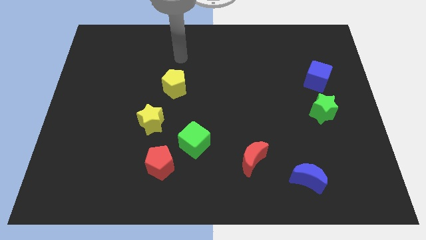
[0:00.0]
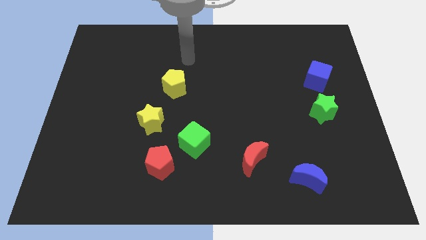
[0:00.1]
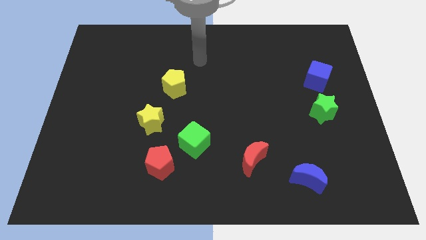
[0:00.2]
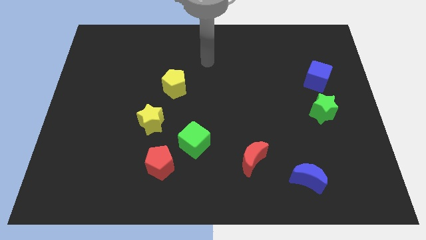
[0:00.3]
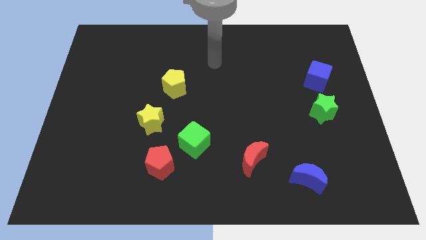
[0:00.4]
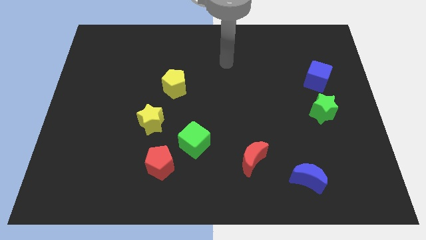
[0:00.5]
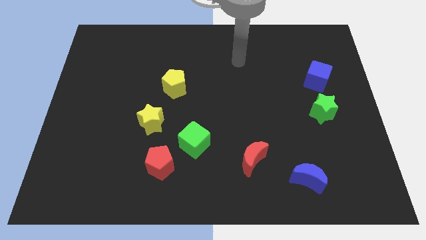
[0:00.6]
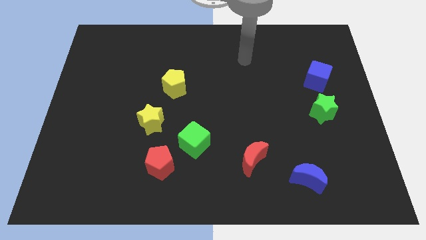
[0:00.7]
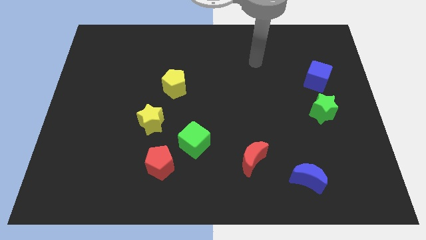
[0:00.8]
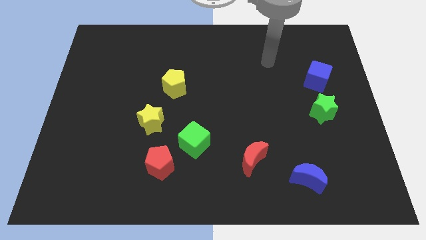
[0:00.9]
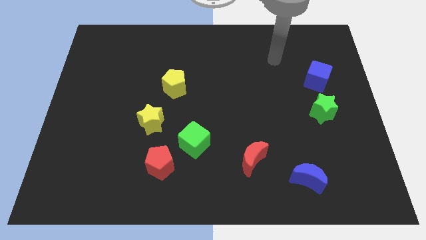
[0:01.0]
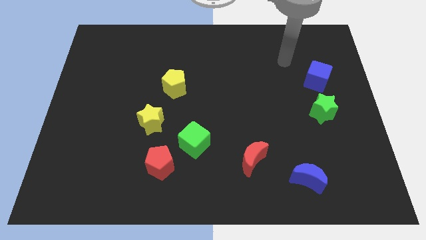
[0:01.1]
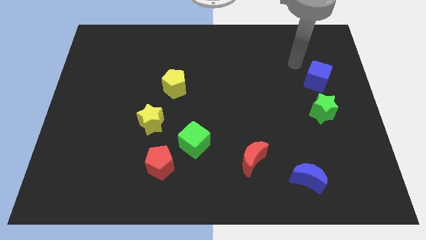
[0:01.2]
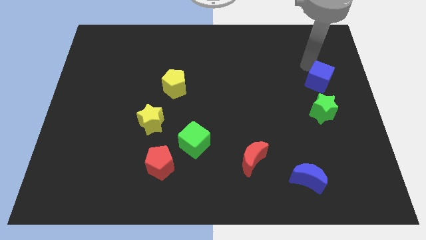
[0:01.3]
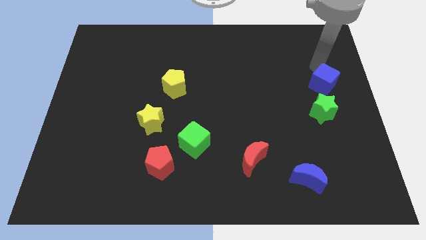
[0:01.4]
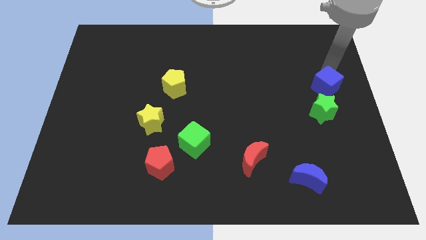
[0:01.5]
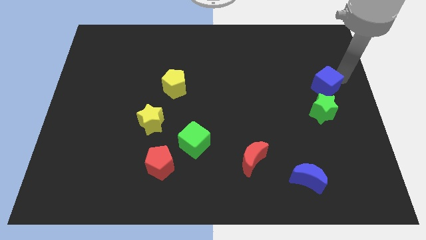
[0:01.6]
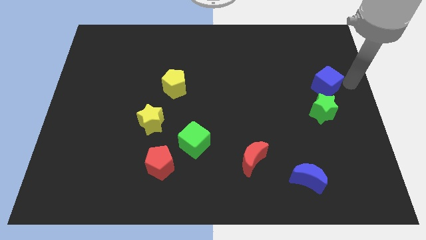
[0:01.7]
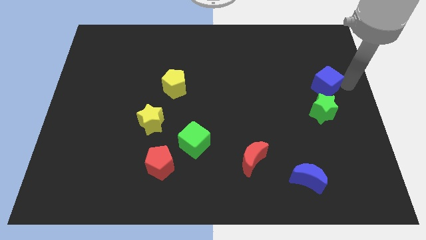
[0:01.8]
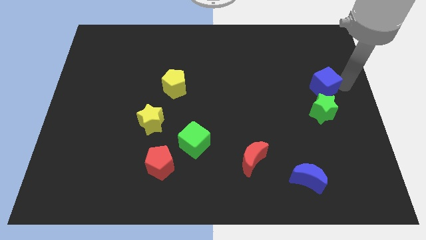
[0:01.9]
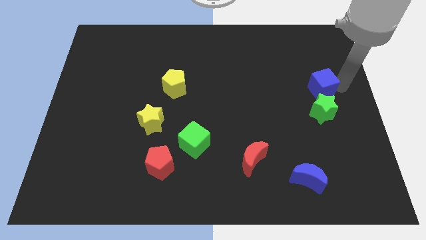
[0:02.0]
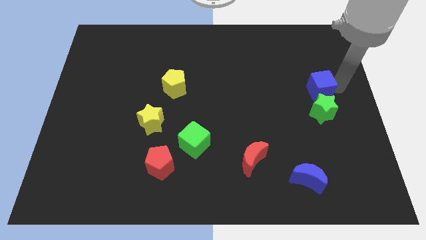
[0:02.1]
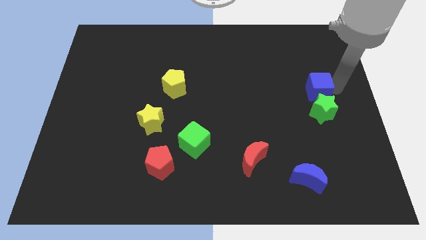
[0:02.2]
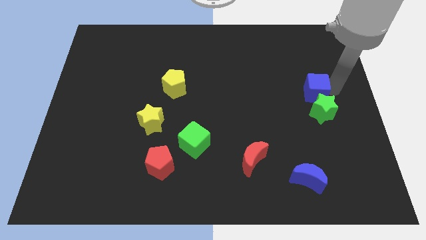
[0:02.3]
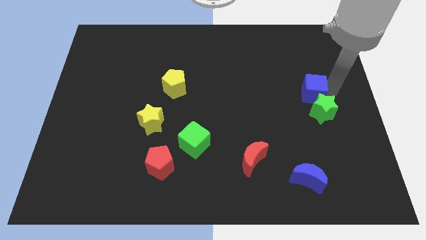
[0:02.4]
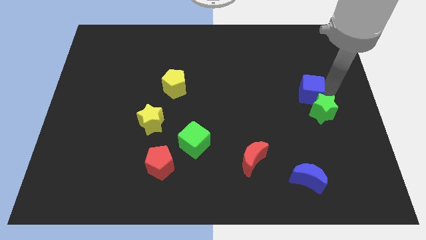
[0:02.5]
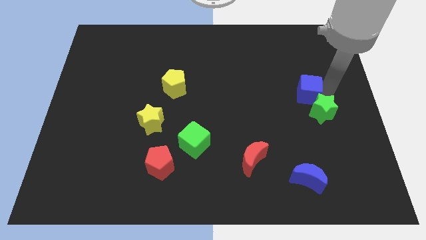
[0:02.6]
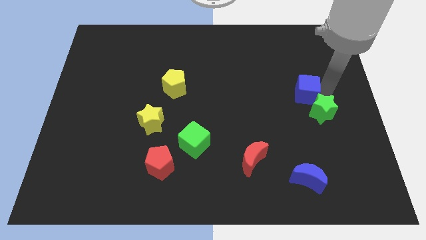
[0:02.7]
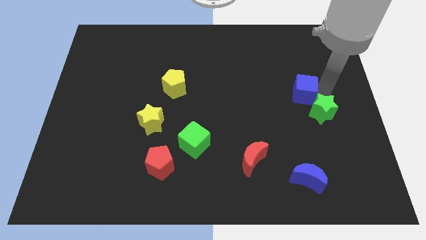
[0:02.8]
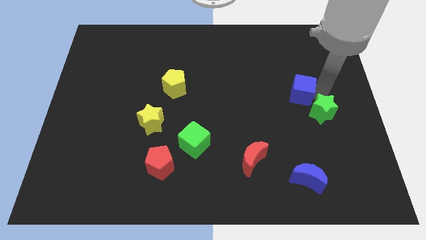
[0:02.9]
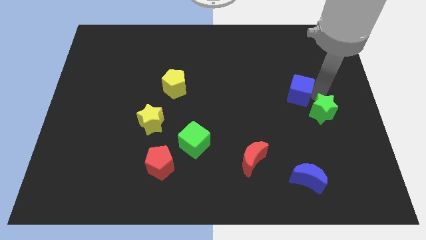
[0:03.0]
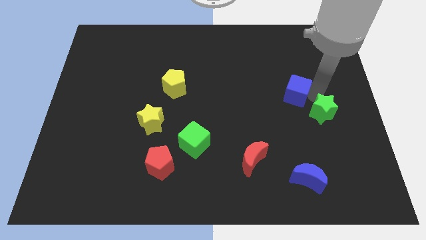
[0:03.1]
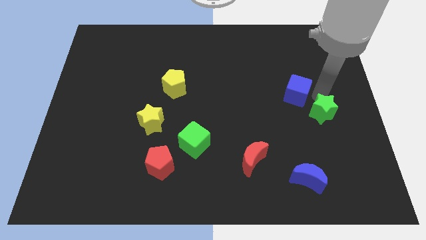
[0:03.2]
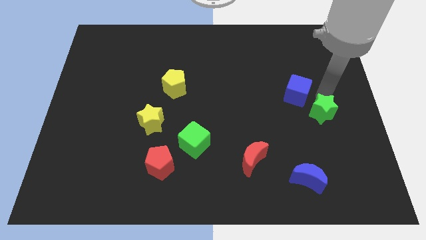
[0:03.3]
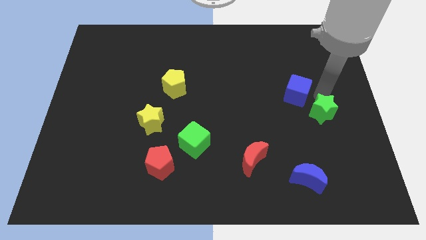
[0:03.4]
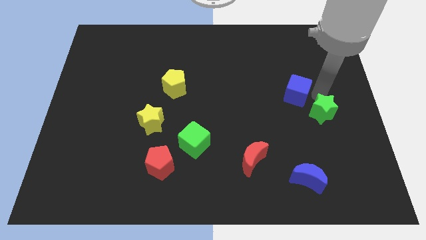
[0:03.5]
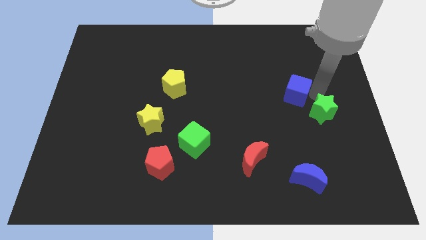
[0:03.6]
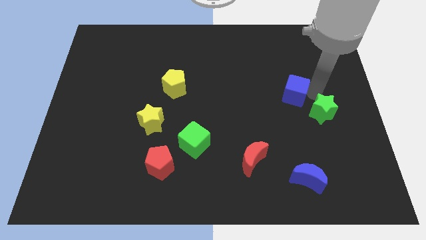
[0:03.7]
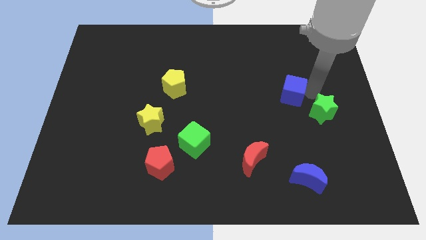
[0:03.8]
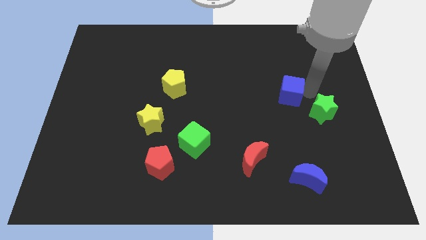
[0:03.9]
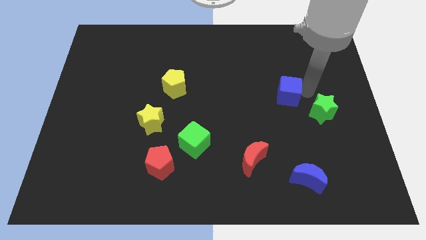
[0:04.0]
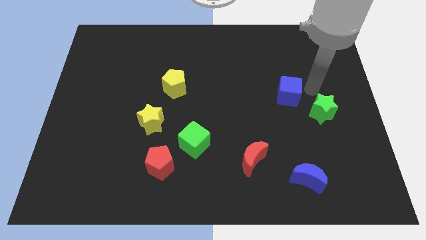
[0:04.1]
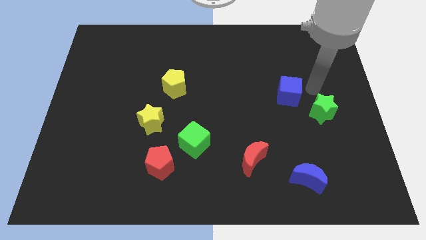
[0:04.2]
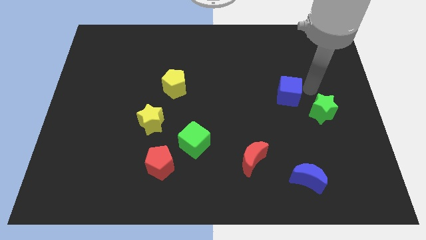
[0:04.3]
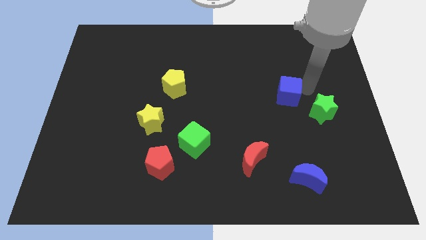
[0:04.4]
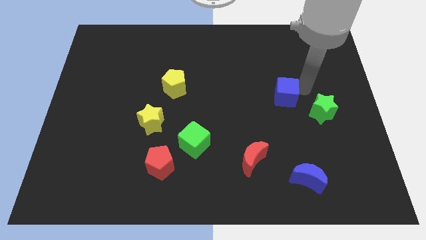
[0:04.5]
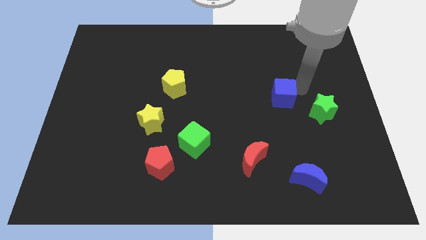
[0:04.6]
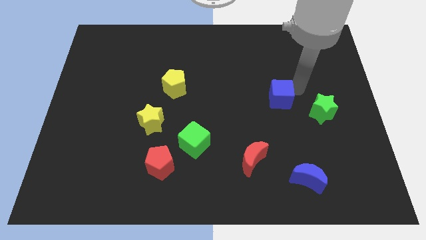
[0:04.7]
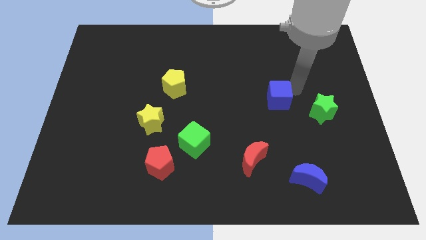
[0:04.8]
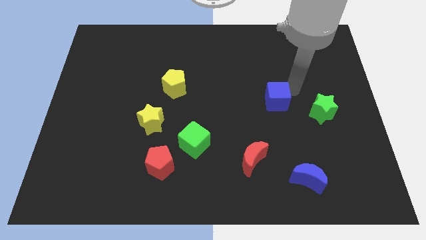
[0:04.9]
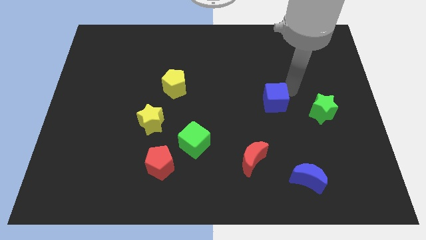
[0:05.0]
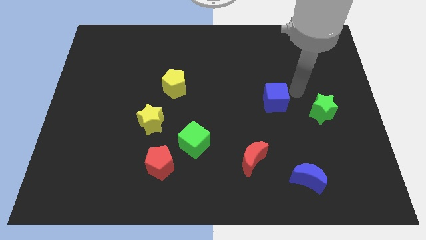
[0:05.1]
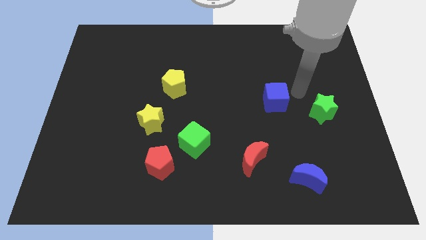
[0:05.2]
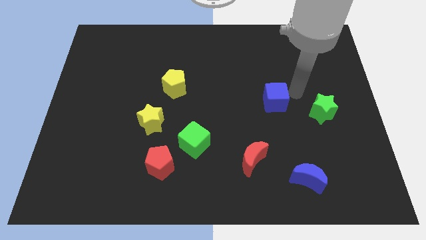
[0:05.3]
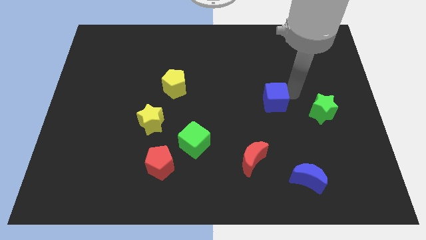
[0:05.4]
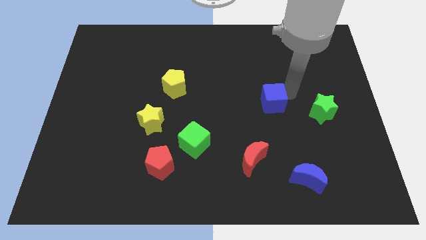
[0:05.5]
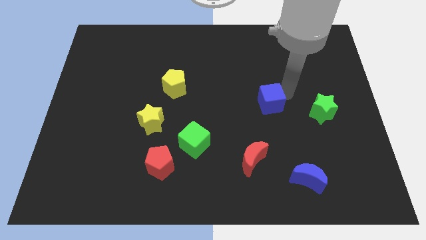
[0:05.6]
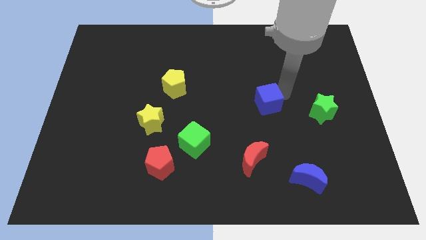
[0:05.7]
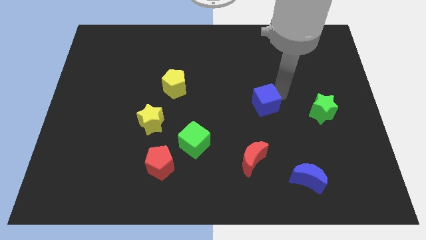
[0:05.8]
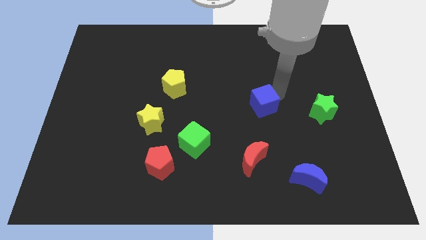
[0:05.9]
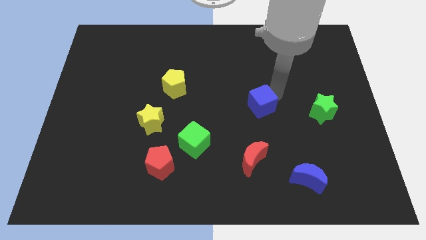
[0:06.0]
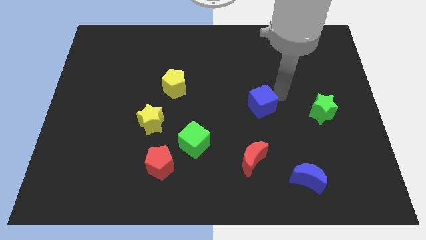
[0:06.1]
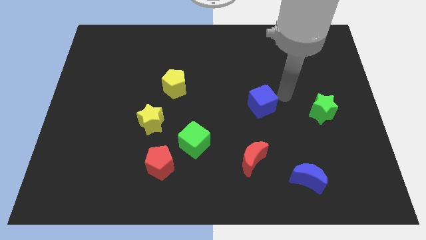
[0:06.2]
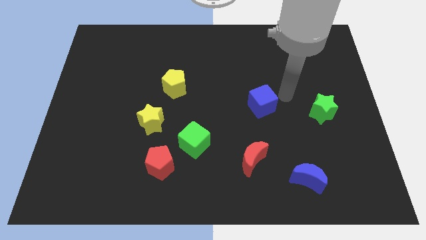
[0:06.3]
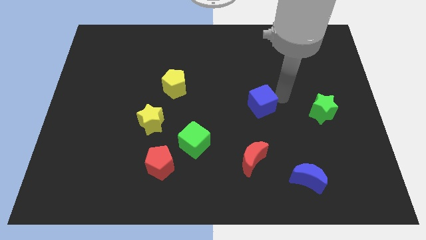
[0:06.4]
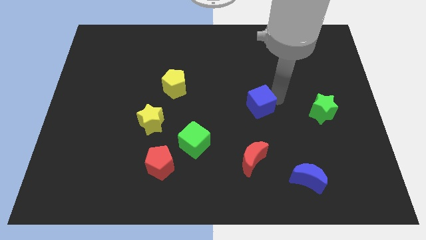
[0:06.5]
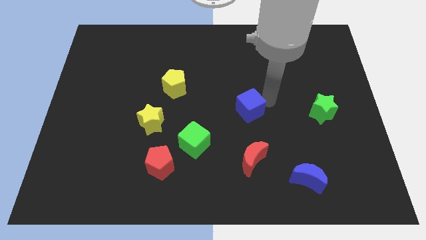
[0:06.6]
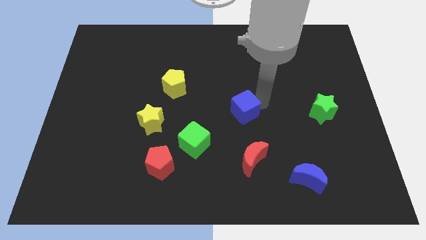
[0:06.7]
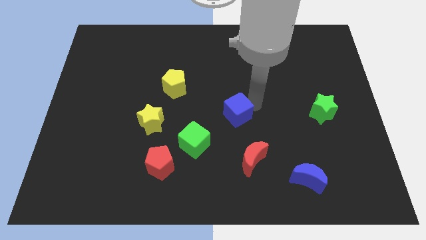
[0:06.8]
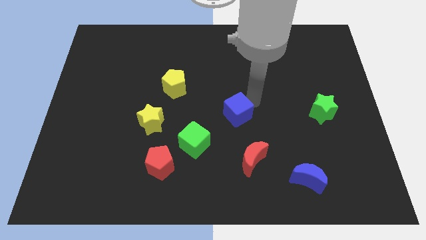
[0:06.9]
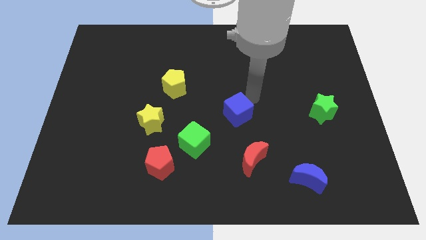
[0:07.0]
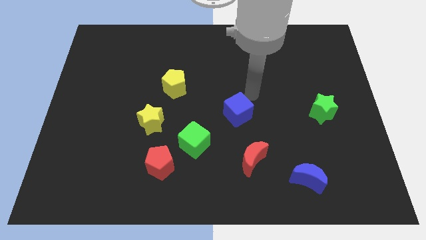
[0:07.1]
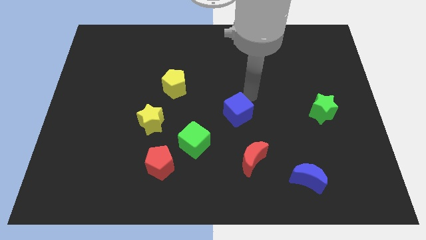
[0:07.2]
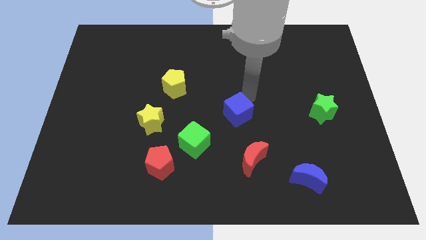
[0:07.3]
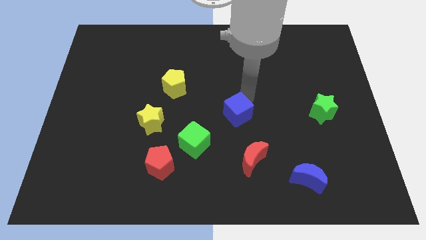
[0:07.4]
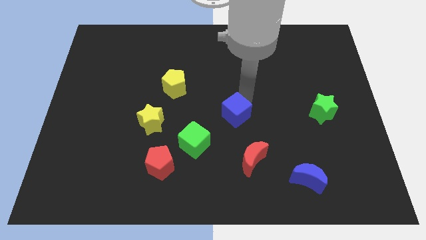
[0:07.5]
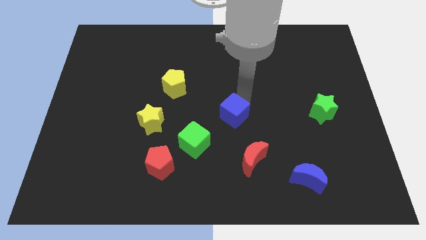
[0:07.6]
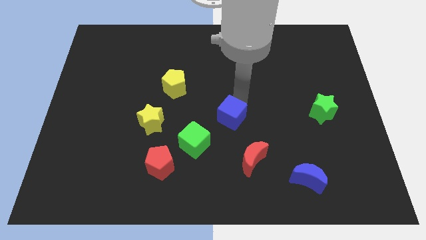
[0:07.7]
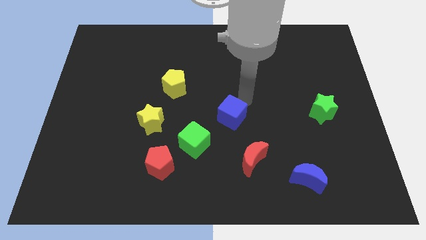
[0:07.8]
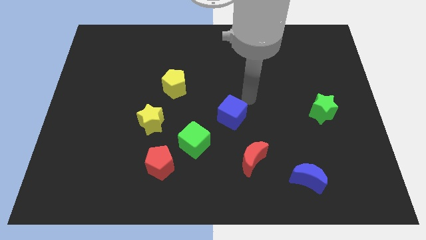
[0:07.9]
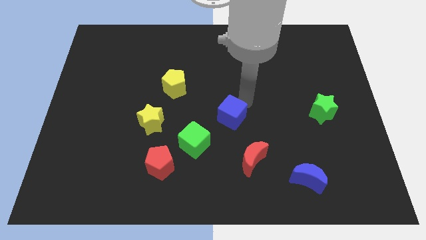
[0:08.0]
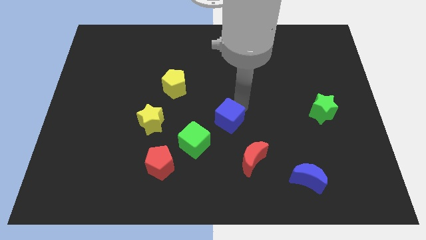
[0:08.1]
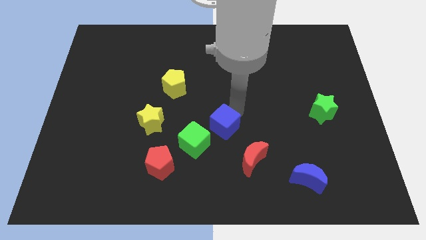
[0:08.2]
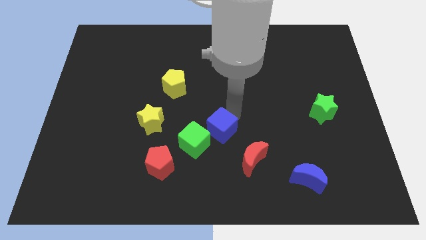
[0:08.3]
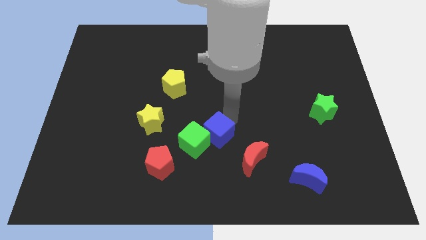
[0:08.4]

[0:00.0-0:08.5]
put the blue cube to the green cube
